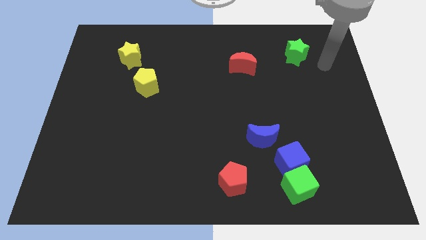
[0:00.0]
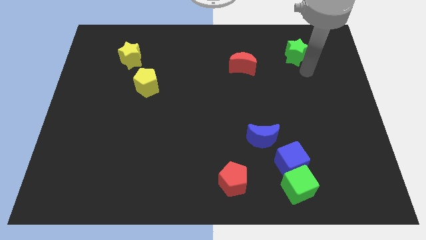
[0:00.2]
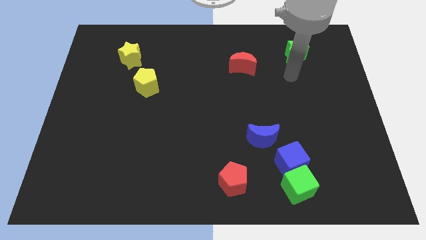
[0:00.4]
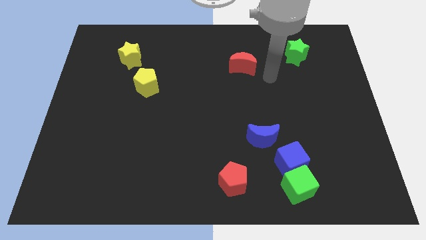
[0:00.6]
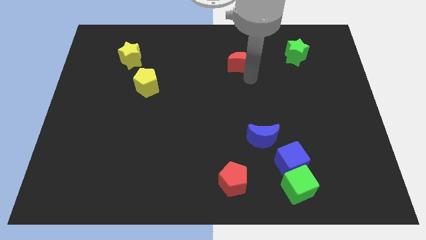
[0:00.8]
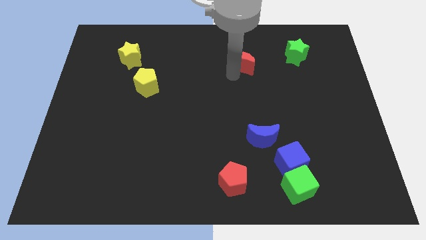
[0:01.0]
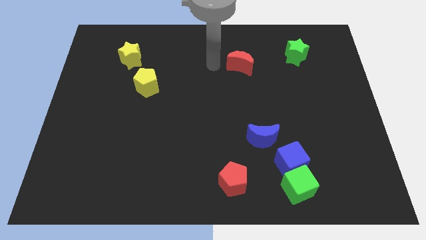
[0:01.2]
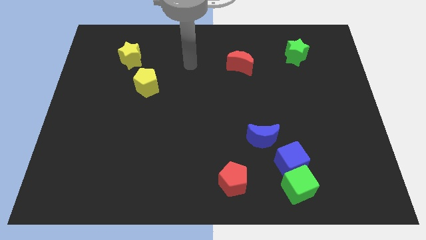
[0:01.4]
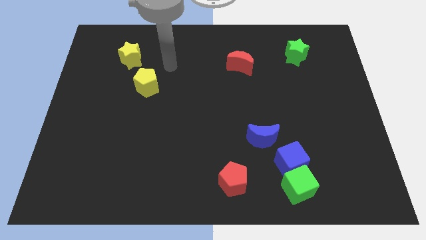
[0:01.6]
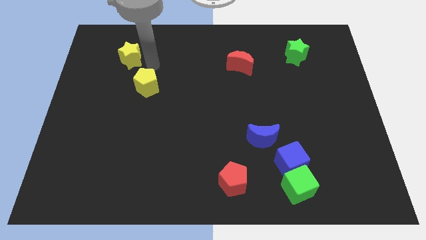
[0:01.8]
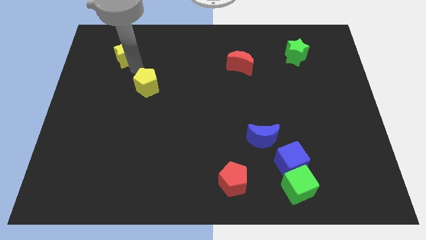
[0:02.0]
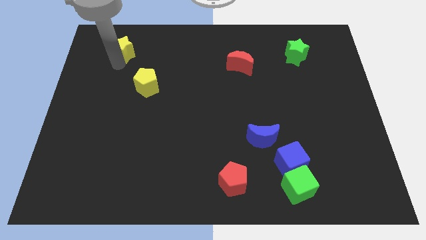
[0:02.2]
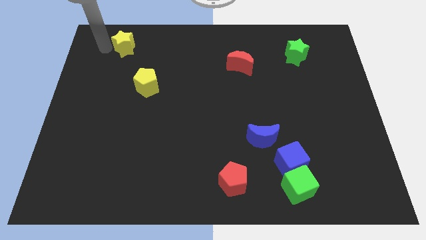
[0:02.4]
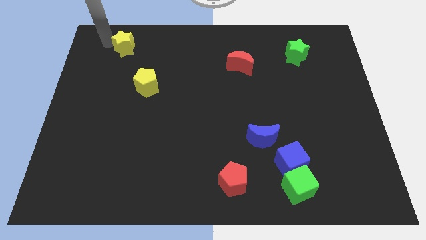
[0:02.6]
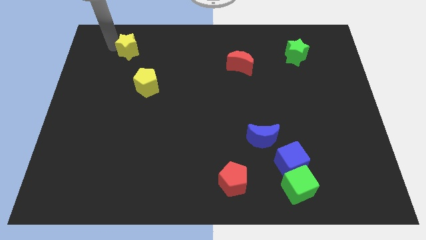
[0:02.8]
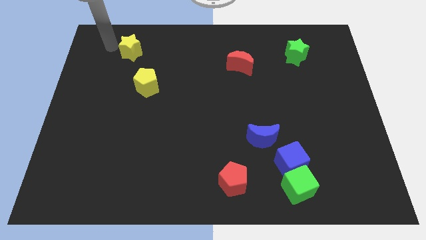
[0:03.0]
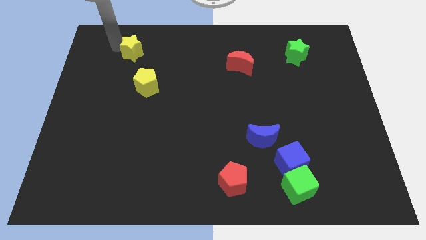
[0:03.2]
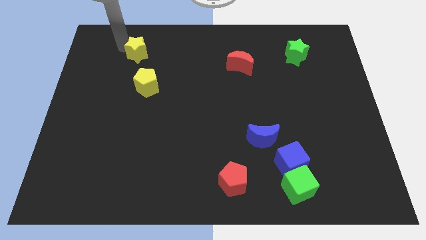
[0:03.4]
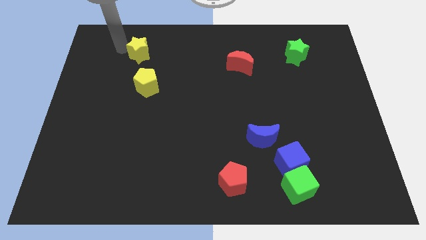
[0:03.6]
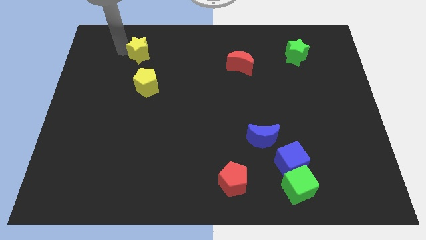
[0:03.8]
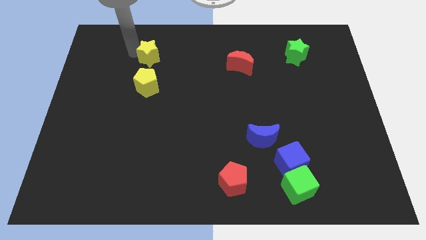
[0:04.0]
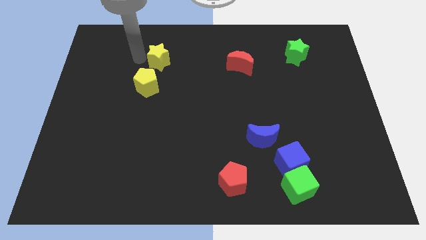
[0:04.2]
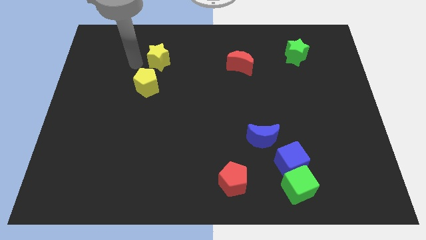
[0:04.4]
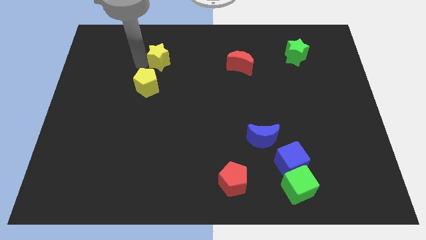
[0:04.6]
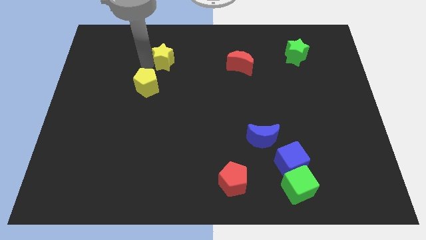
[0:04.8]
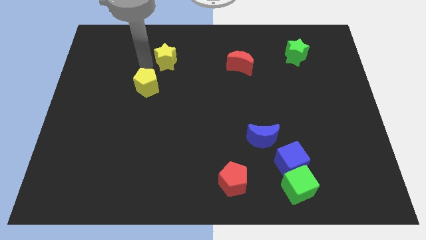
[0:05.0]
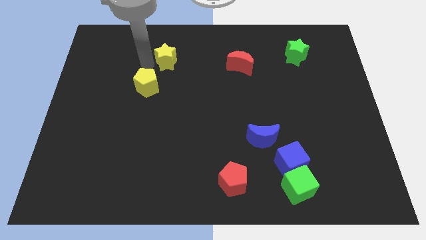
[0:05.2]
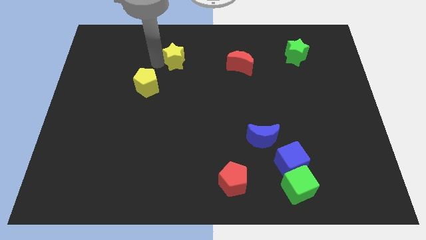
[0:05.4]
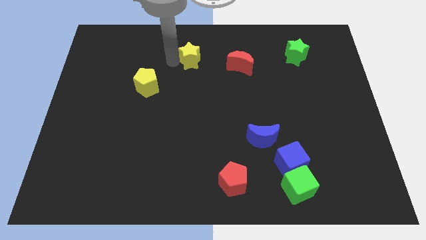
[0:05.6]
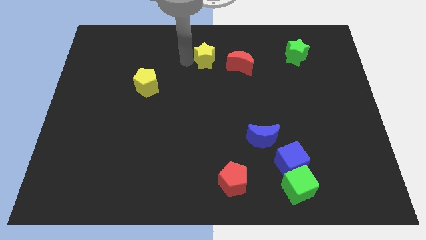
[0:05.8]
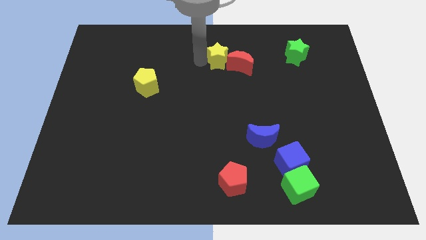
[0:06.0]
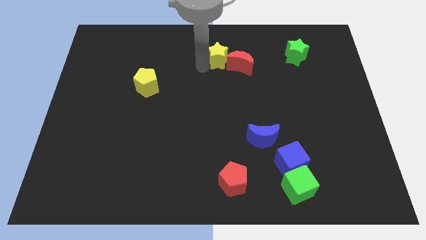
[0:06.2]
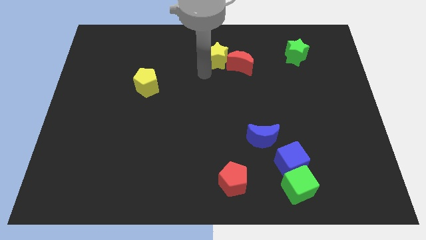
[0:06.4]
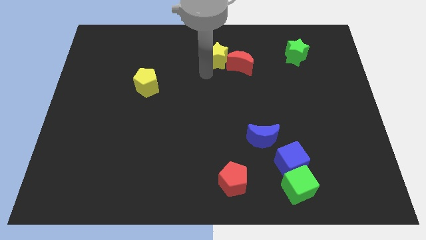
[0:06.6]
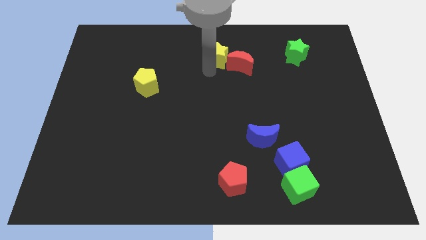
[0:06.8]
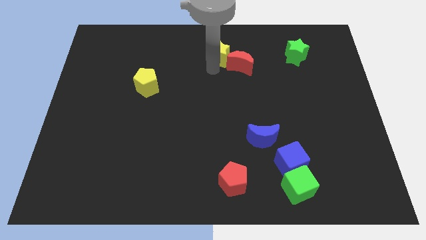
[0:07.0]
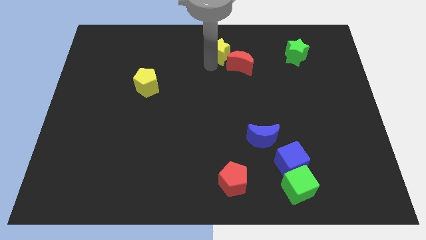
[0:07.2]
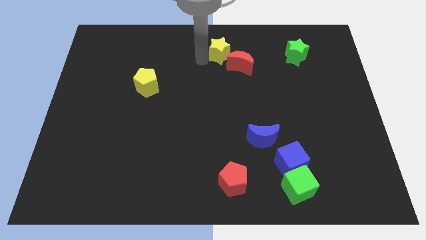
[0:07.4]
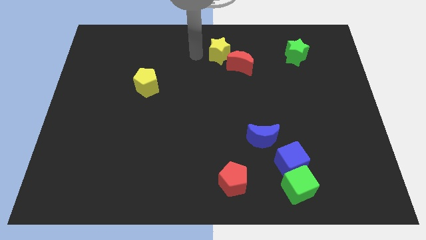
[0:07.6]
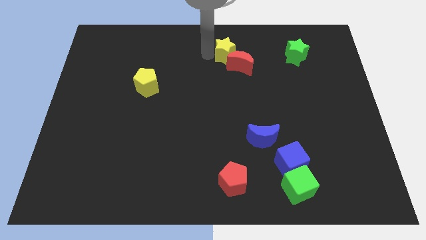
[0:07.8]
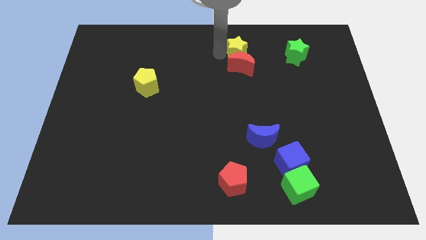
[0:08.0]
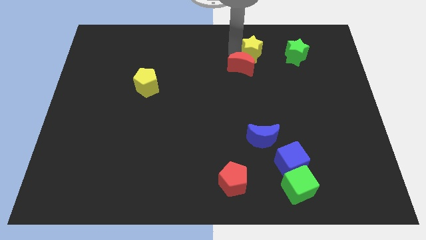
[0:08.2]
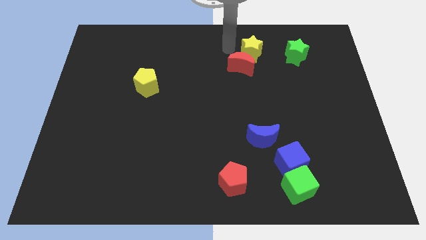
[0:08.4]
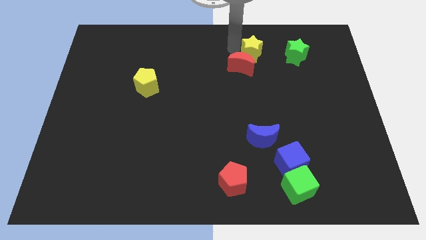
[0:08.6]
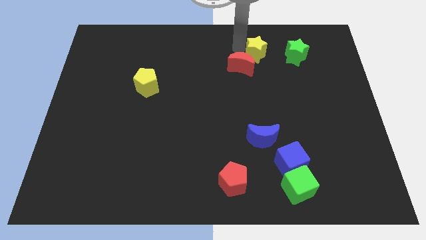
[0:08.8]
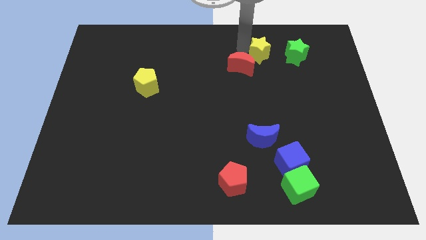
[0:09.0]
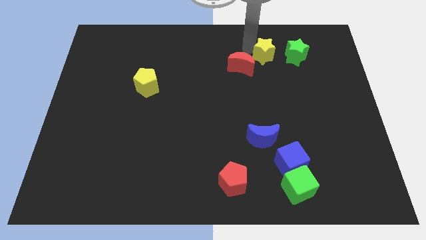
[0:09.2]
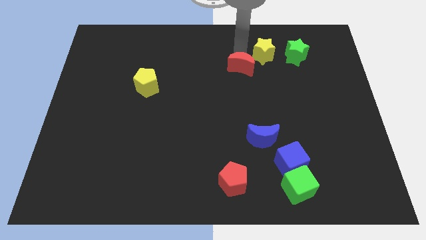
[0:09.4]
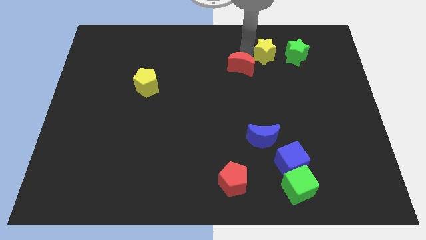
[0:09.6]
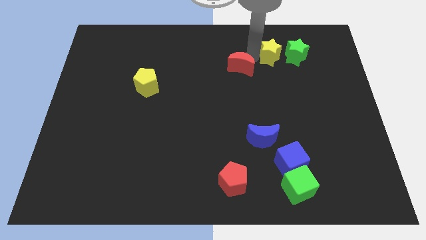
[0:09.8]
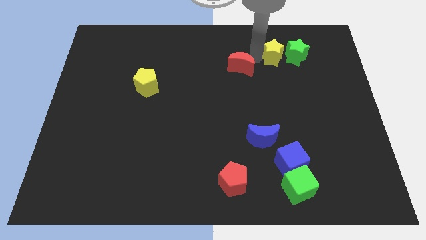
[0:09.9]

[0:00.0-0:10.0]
slide the yellow star close to the green star

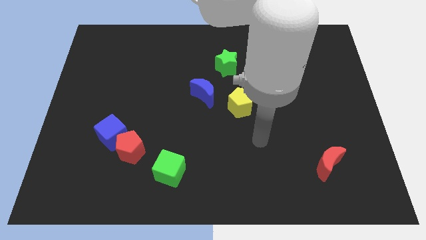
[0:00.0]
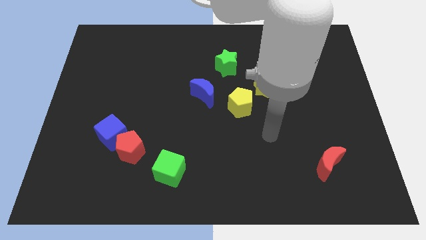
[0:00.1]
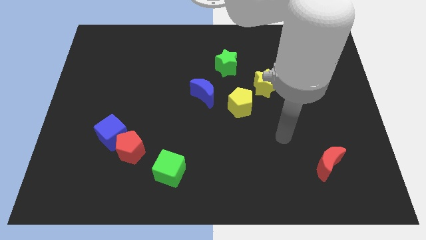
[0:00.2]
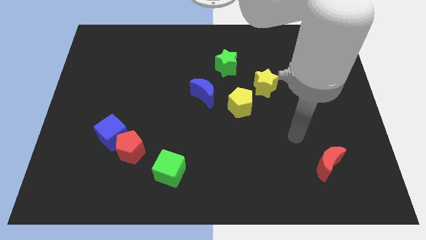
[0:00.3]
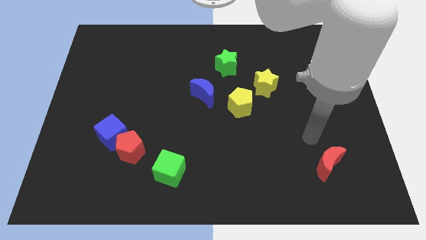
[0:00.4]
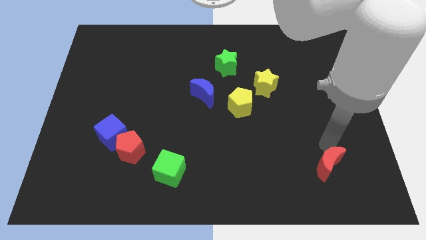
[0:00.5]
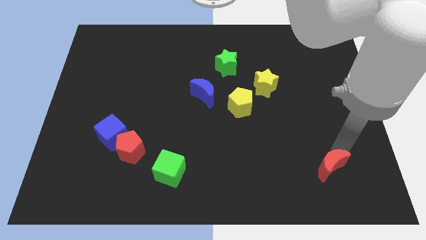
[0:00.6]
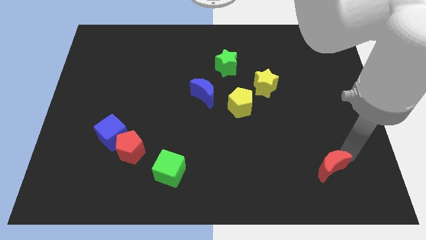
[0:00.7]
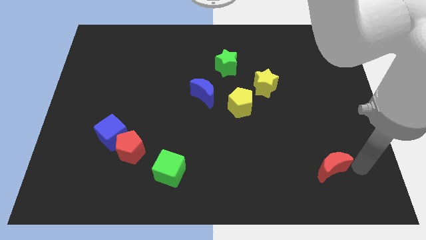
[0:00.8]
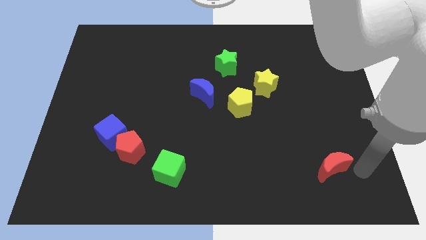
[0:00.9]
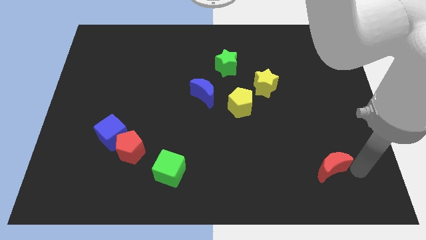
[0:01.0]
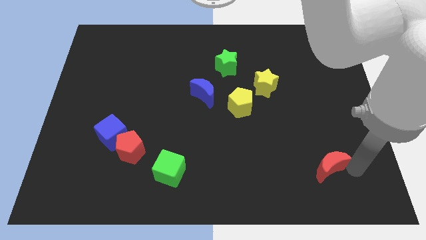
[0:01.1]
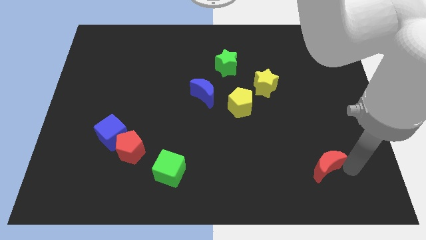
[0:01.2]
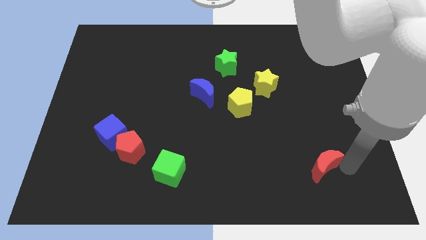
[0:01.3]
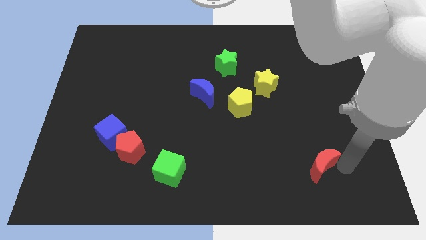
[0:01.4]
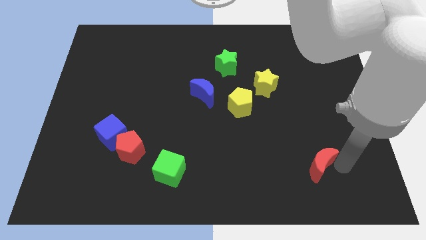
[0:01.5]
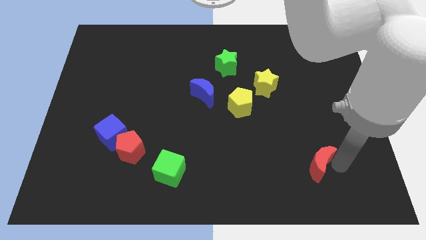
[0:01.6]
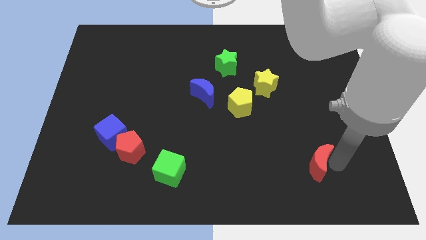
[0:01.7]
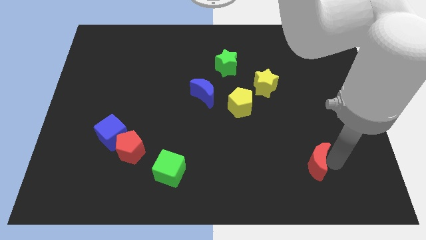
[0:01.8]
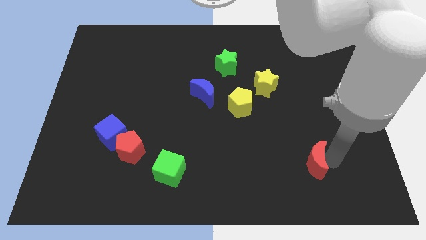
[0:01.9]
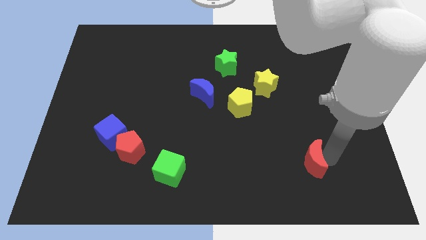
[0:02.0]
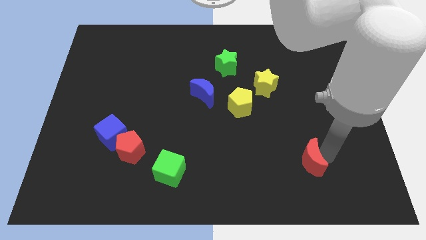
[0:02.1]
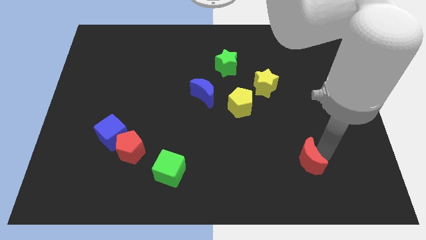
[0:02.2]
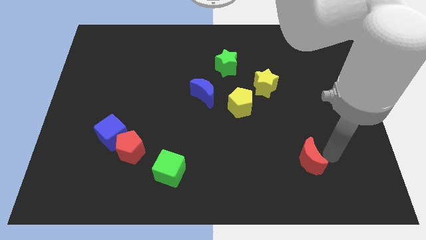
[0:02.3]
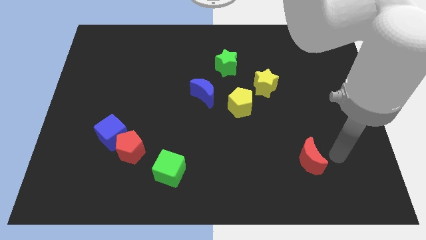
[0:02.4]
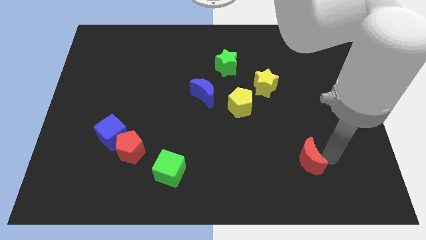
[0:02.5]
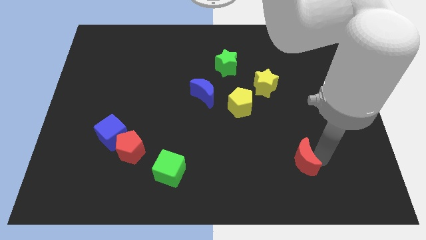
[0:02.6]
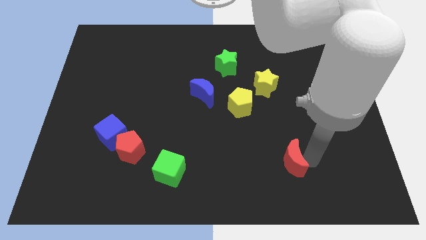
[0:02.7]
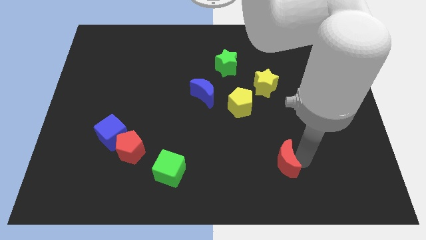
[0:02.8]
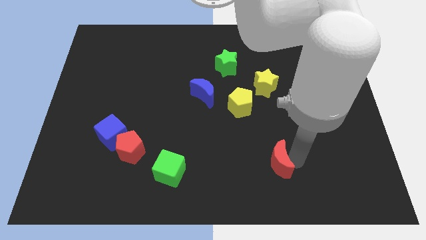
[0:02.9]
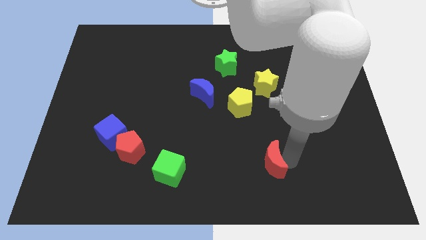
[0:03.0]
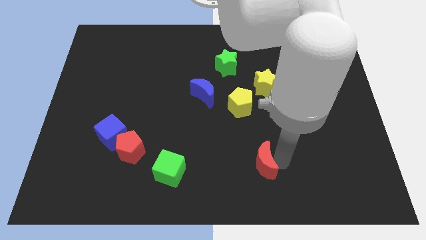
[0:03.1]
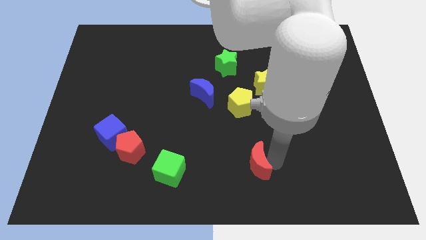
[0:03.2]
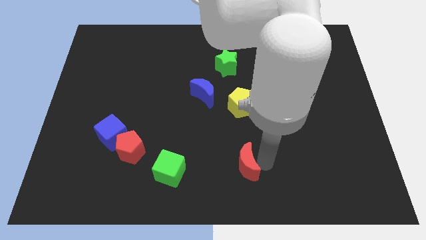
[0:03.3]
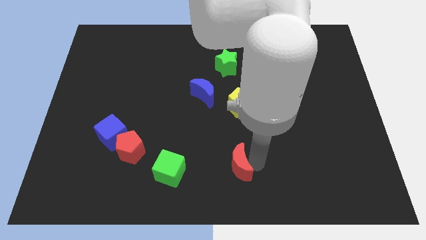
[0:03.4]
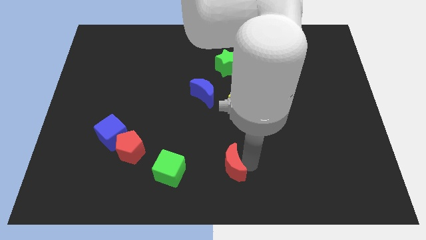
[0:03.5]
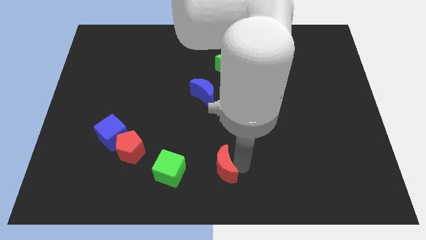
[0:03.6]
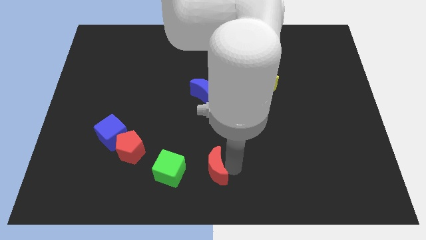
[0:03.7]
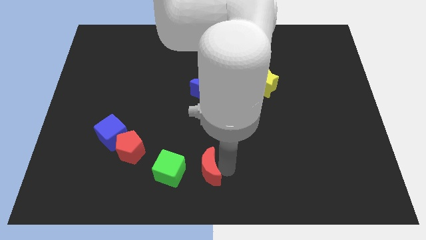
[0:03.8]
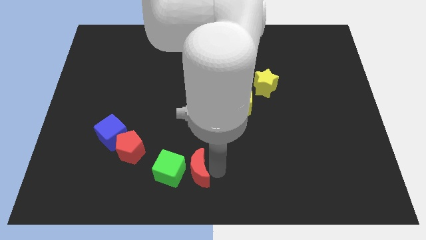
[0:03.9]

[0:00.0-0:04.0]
move the red moon towards the green cube
